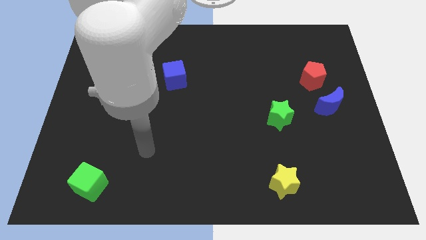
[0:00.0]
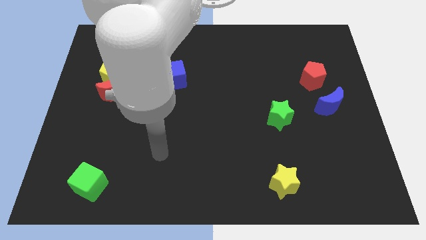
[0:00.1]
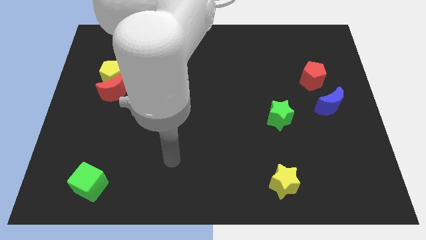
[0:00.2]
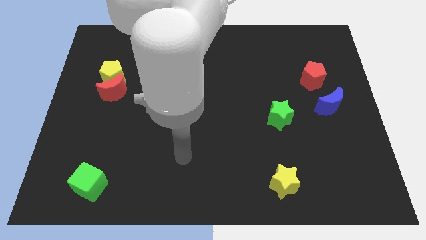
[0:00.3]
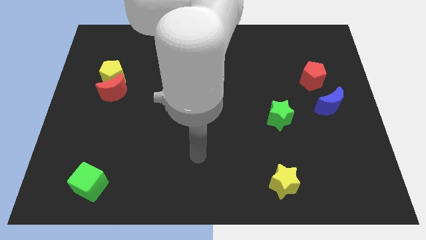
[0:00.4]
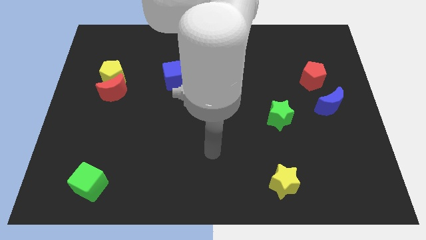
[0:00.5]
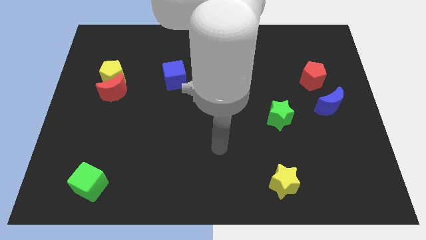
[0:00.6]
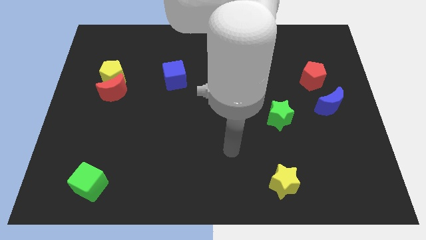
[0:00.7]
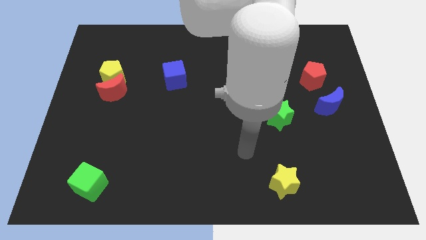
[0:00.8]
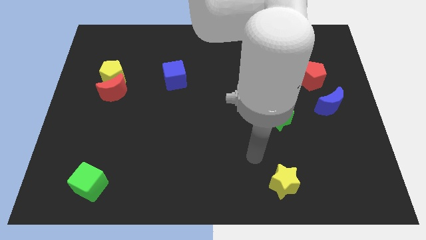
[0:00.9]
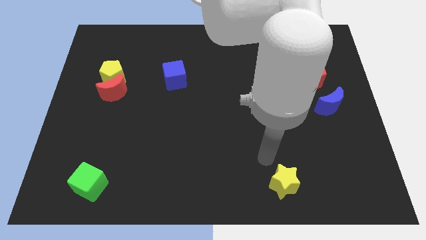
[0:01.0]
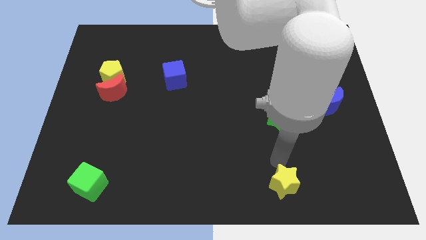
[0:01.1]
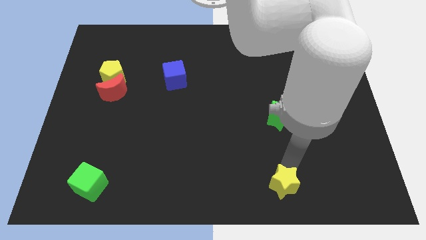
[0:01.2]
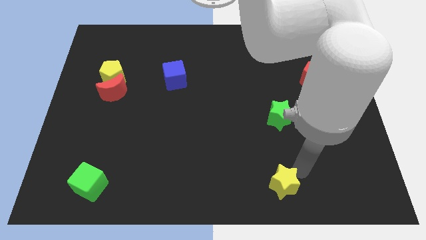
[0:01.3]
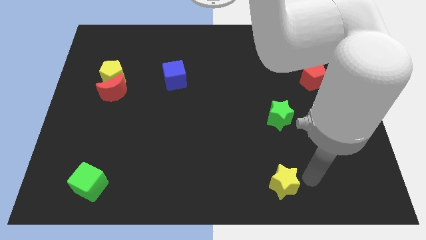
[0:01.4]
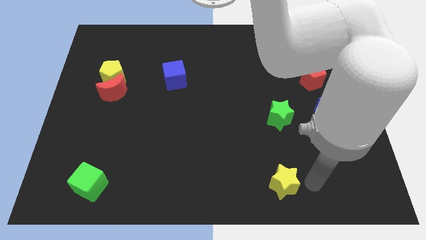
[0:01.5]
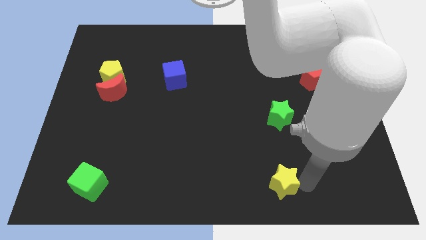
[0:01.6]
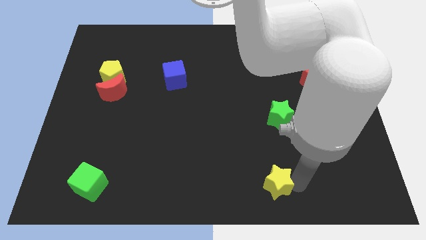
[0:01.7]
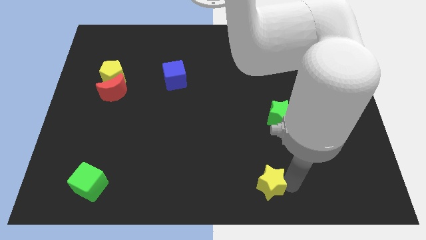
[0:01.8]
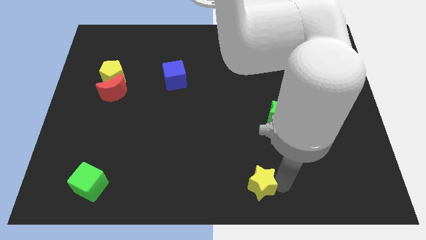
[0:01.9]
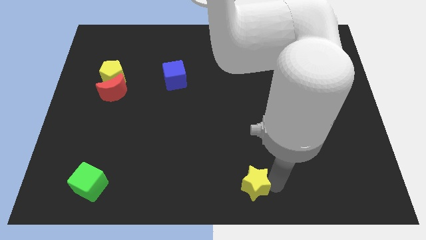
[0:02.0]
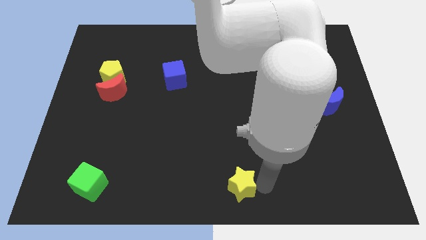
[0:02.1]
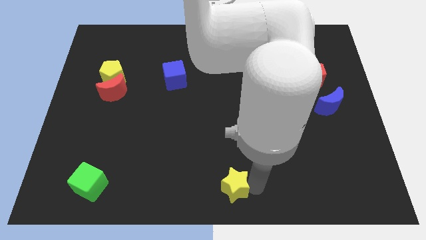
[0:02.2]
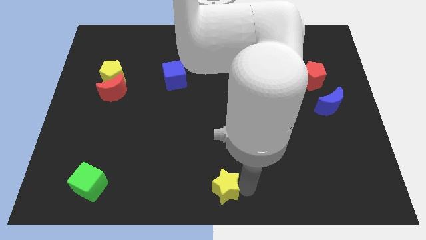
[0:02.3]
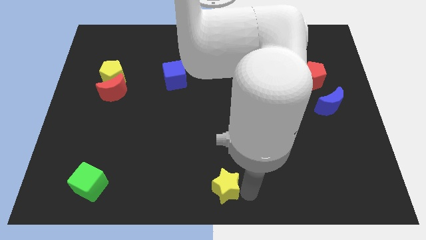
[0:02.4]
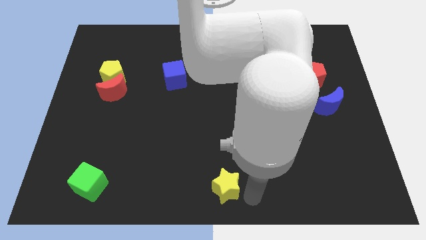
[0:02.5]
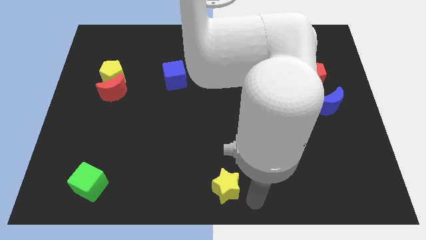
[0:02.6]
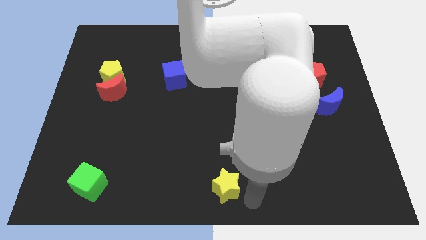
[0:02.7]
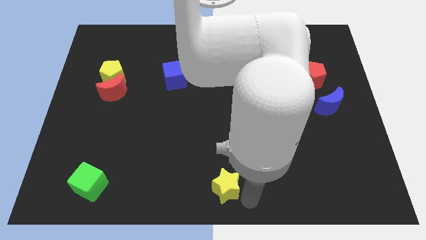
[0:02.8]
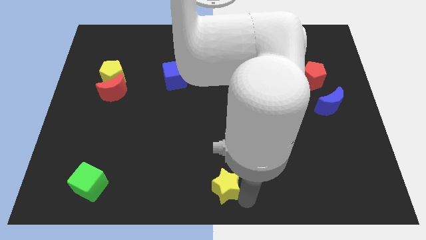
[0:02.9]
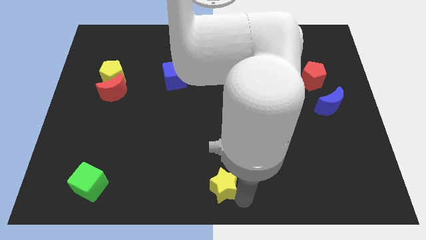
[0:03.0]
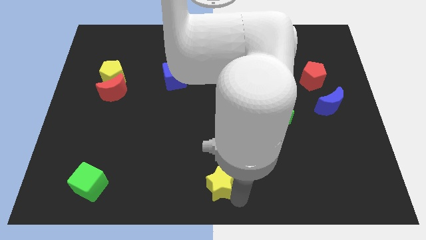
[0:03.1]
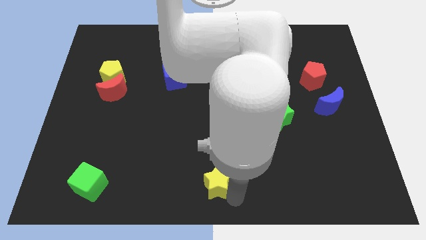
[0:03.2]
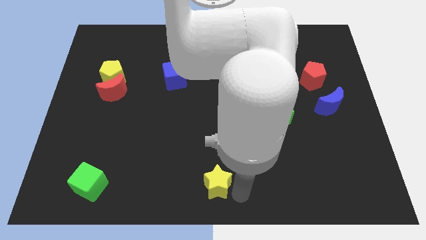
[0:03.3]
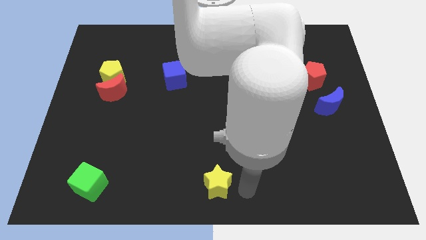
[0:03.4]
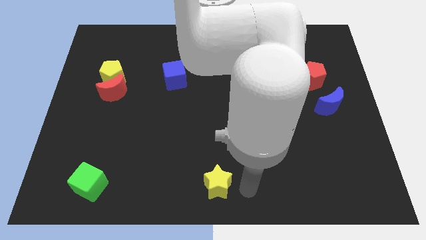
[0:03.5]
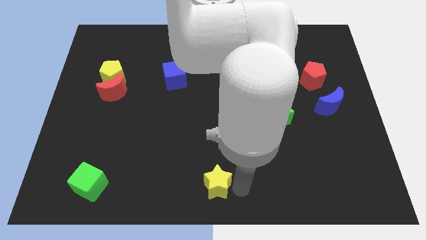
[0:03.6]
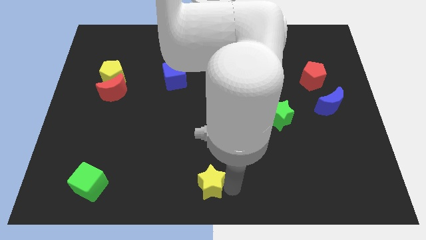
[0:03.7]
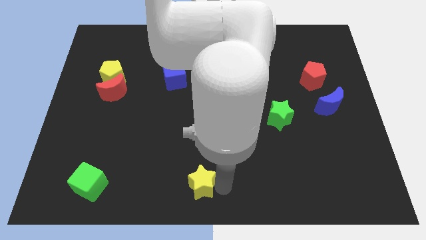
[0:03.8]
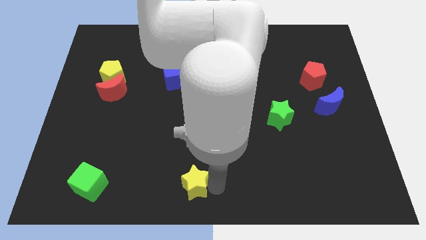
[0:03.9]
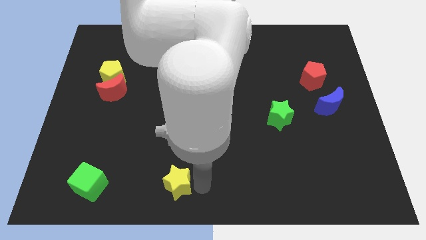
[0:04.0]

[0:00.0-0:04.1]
push the yellow star to the left

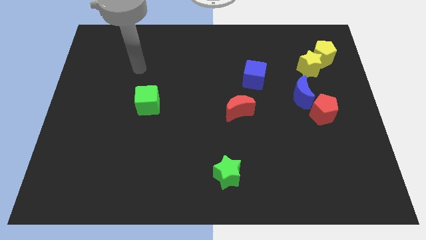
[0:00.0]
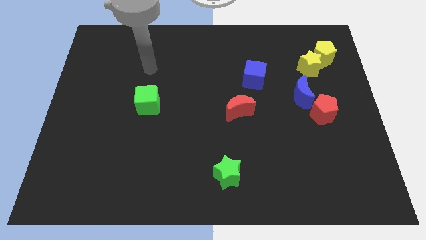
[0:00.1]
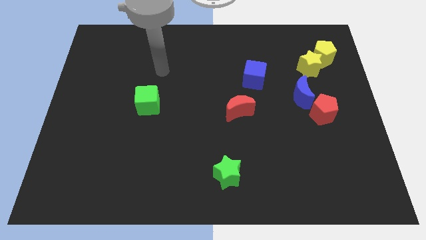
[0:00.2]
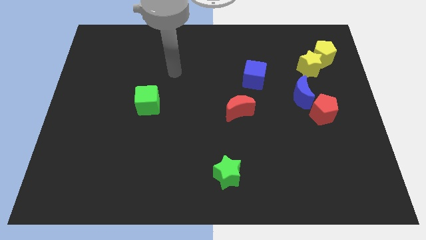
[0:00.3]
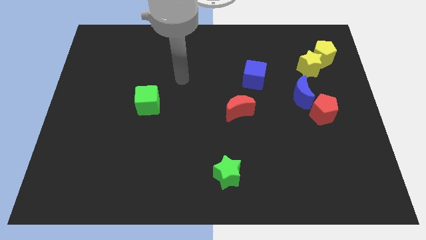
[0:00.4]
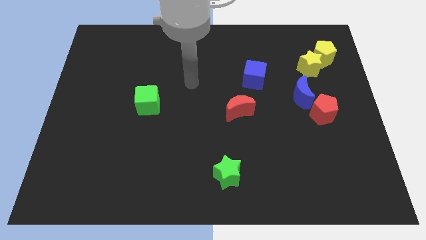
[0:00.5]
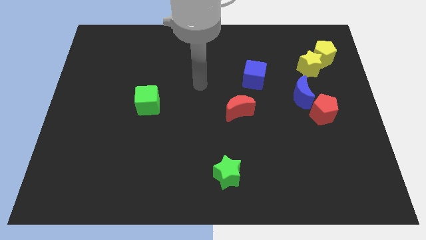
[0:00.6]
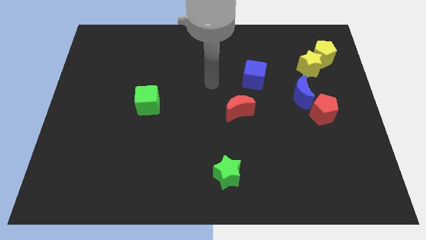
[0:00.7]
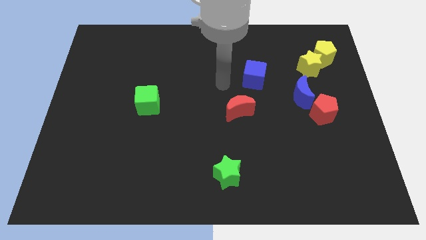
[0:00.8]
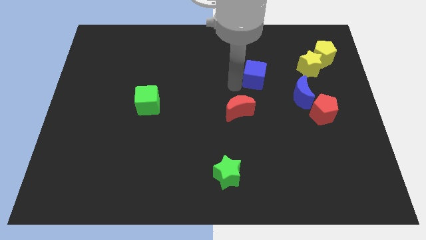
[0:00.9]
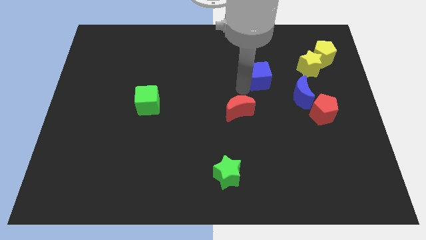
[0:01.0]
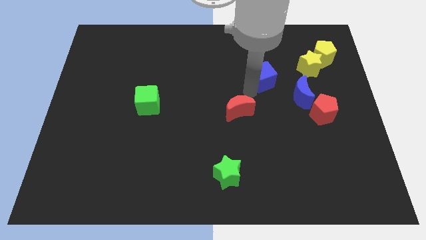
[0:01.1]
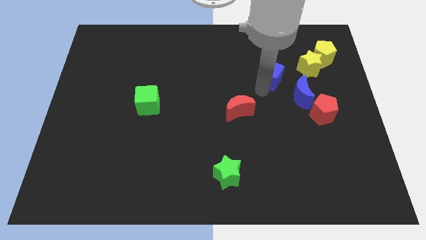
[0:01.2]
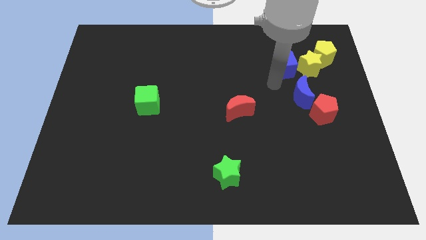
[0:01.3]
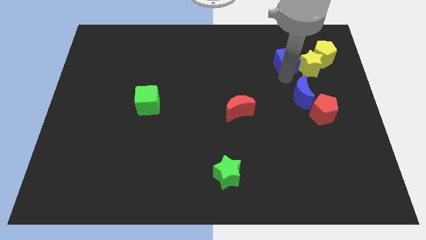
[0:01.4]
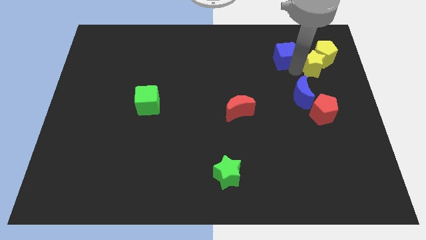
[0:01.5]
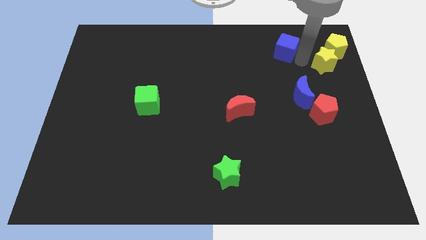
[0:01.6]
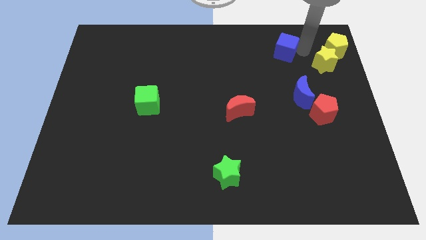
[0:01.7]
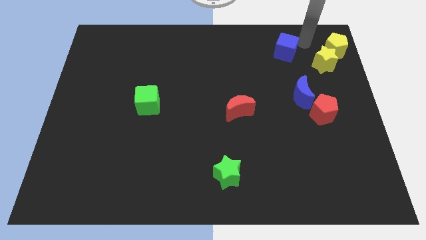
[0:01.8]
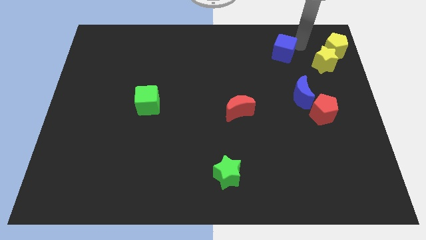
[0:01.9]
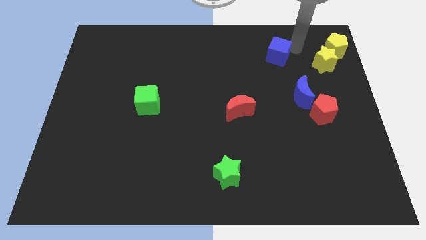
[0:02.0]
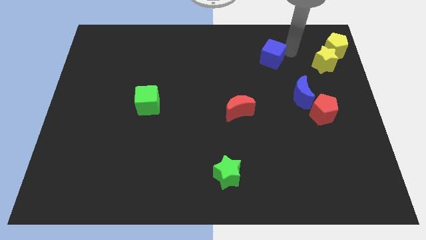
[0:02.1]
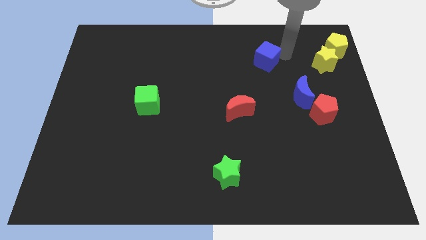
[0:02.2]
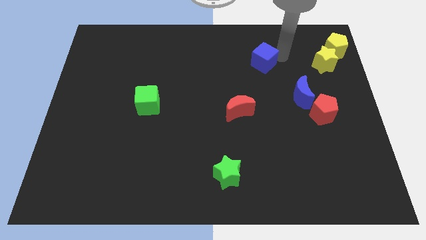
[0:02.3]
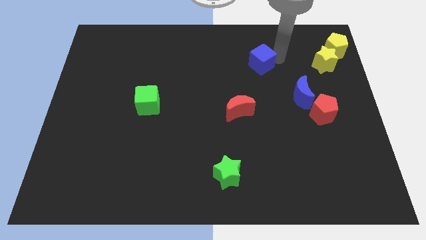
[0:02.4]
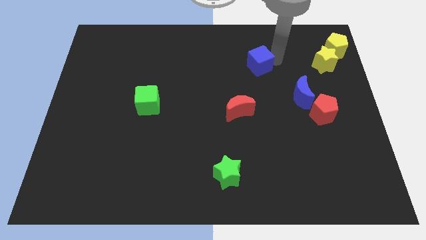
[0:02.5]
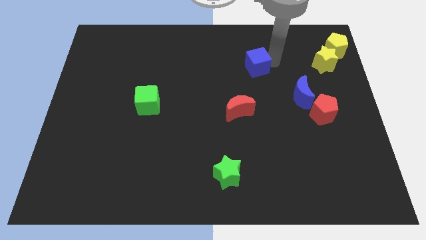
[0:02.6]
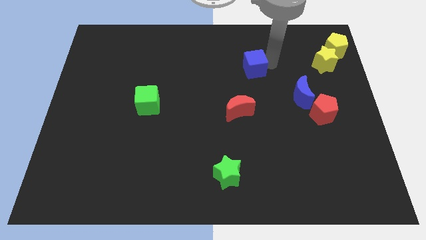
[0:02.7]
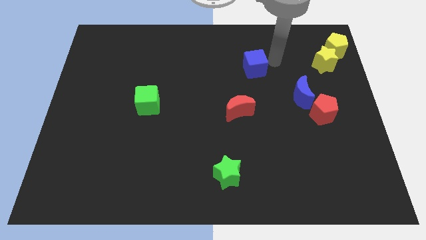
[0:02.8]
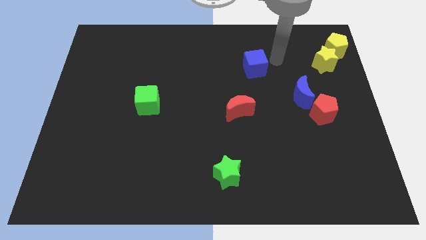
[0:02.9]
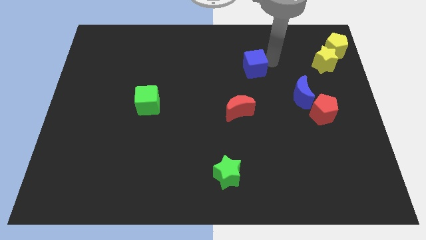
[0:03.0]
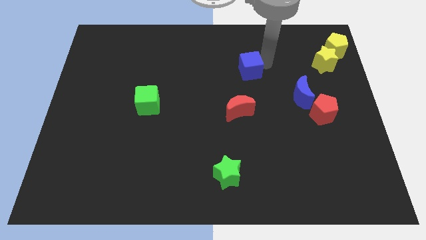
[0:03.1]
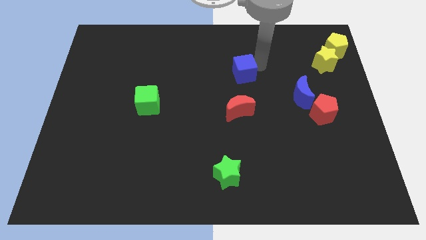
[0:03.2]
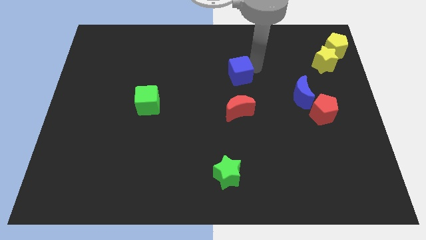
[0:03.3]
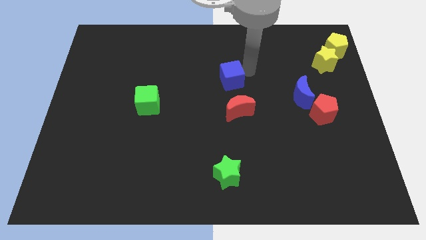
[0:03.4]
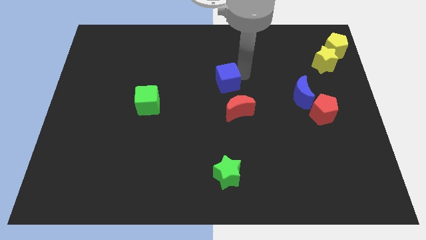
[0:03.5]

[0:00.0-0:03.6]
slide the blue cube slightly to the left

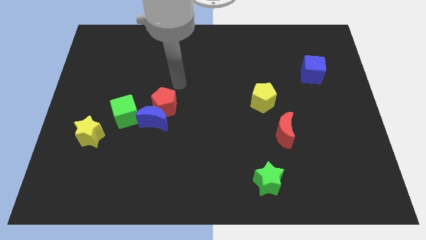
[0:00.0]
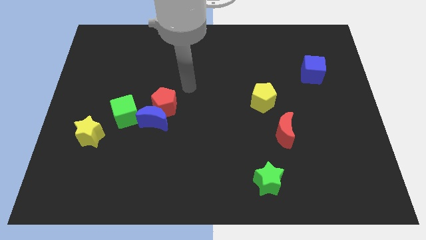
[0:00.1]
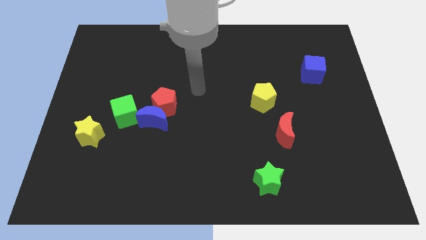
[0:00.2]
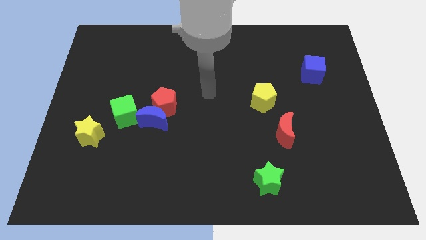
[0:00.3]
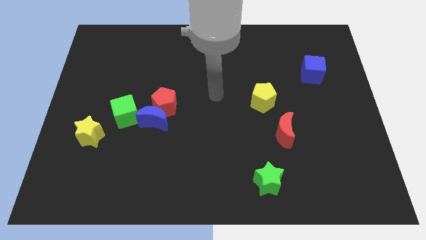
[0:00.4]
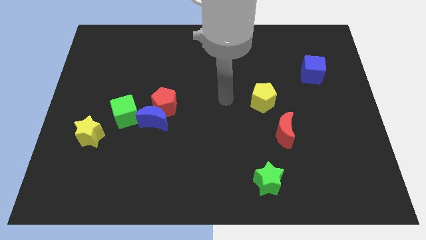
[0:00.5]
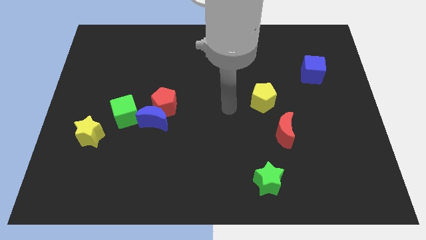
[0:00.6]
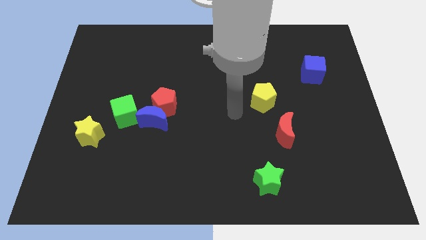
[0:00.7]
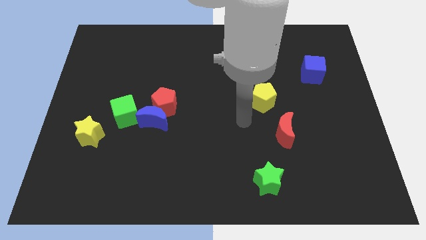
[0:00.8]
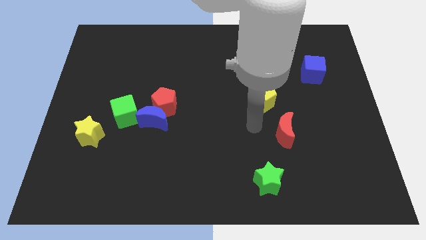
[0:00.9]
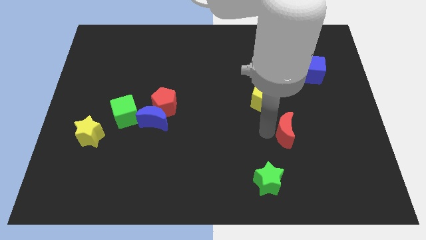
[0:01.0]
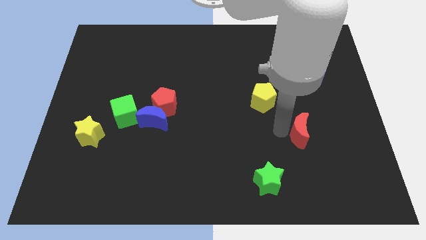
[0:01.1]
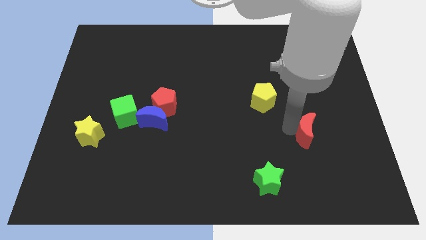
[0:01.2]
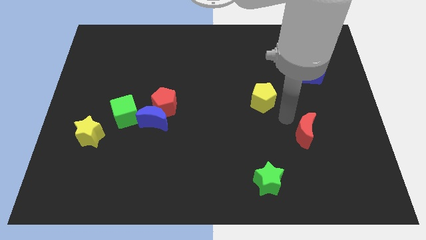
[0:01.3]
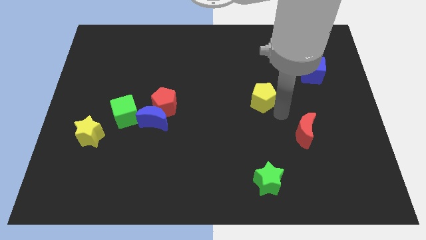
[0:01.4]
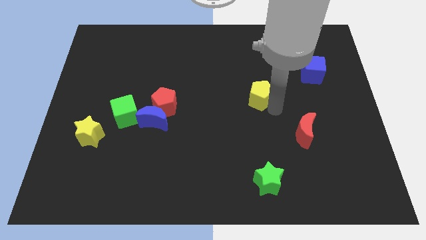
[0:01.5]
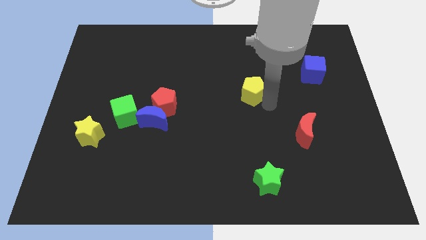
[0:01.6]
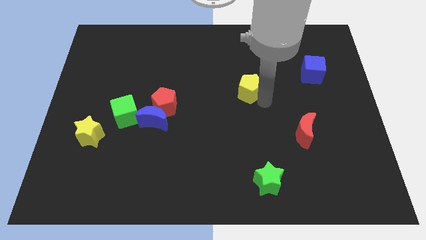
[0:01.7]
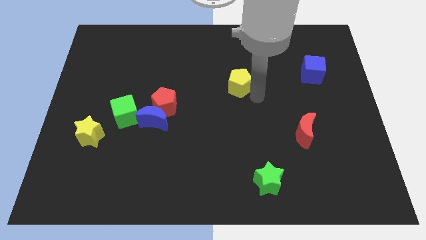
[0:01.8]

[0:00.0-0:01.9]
slide the yellow pentagon a little bit diagonally upwards and to the left
